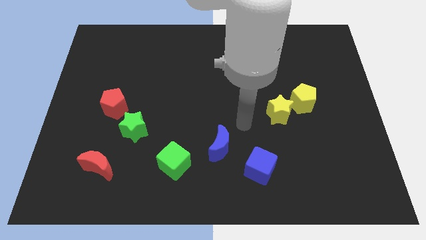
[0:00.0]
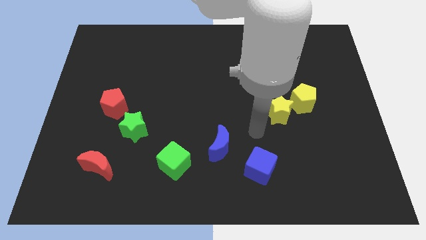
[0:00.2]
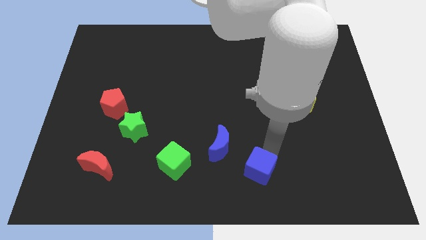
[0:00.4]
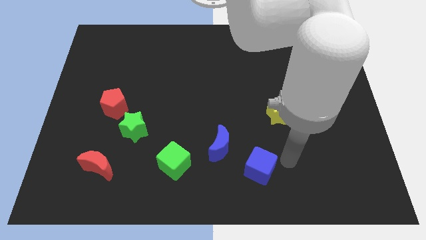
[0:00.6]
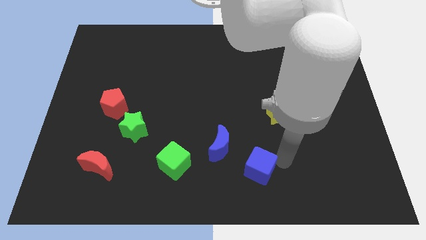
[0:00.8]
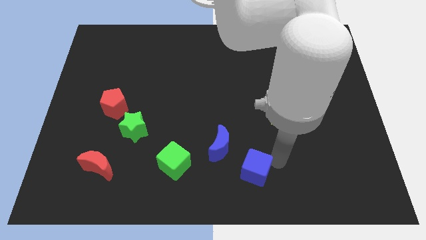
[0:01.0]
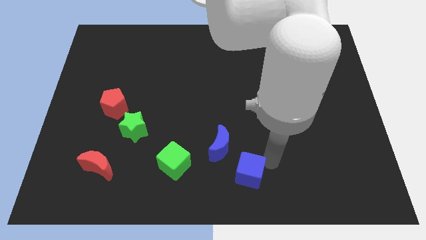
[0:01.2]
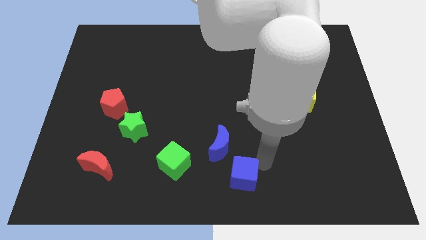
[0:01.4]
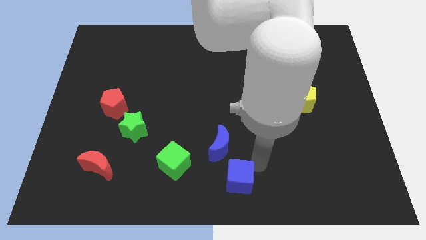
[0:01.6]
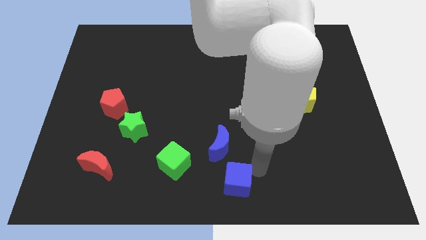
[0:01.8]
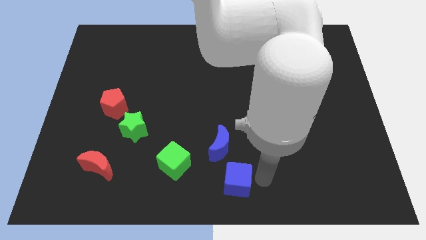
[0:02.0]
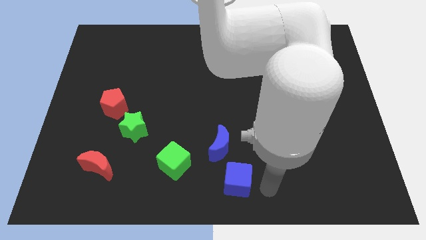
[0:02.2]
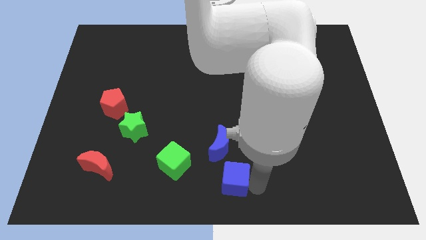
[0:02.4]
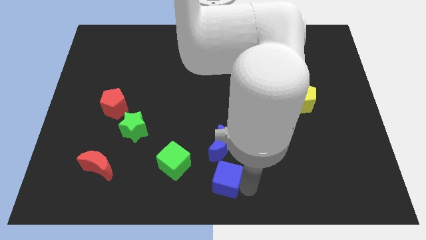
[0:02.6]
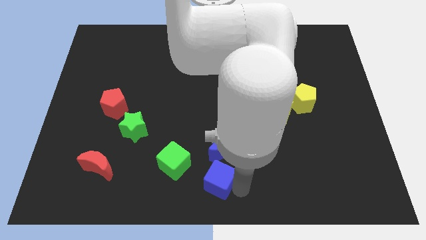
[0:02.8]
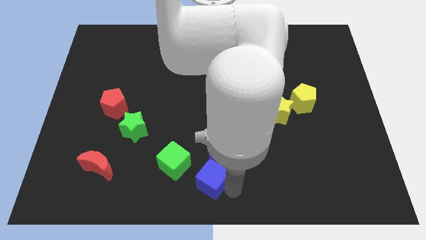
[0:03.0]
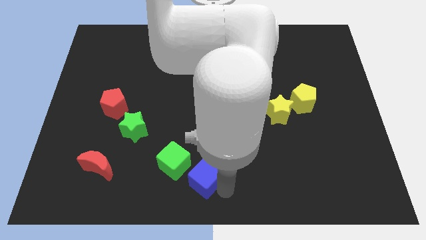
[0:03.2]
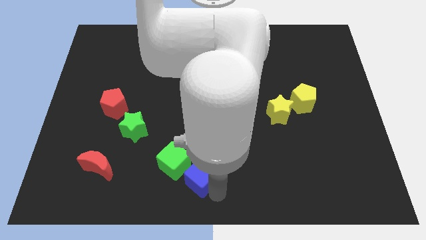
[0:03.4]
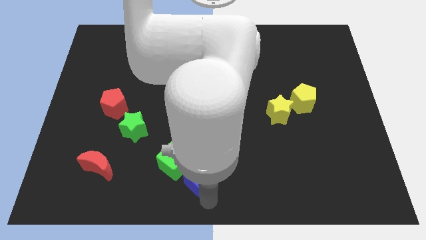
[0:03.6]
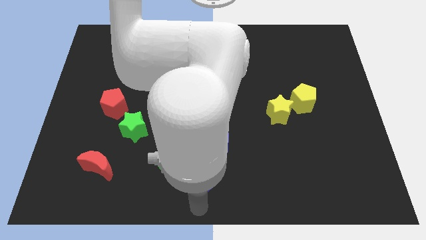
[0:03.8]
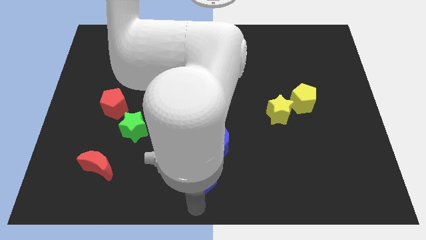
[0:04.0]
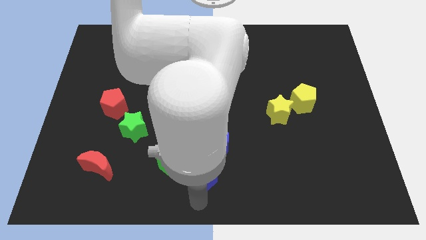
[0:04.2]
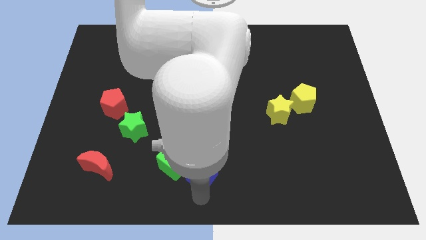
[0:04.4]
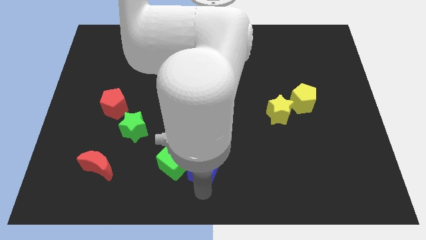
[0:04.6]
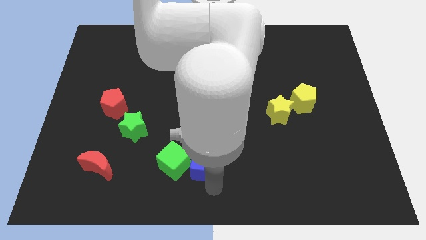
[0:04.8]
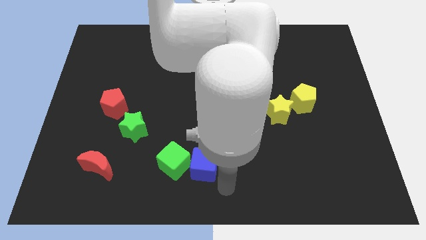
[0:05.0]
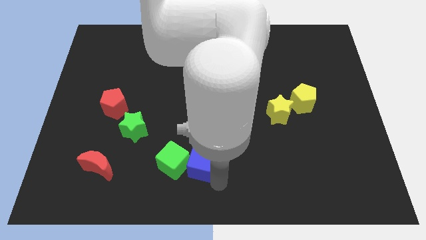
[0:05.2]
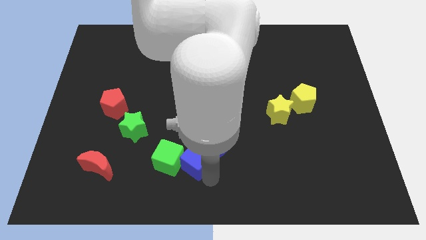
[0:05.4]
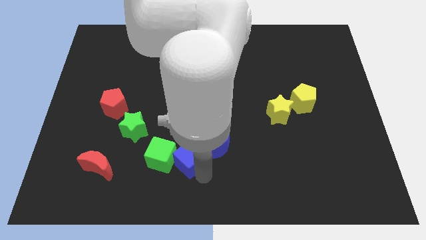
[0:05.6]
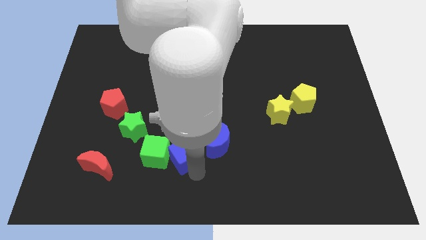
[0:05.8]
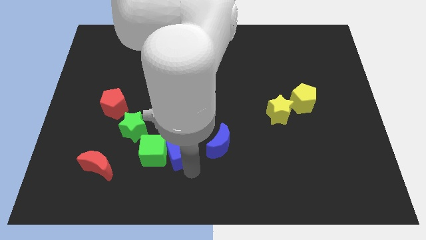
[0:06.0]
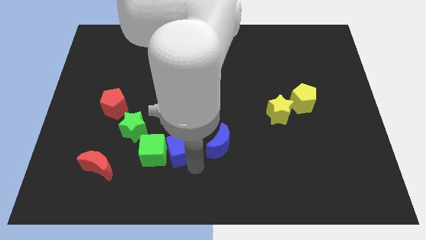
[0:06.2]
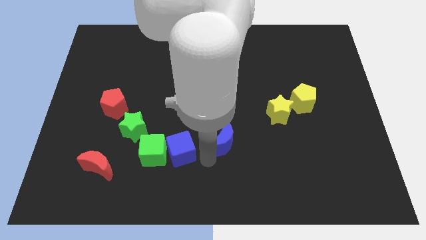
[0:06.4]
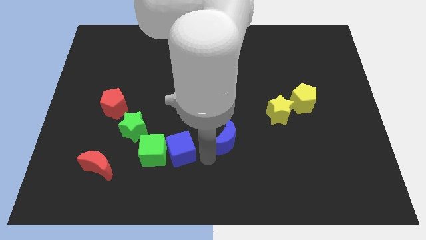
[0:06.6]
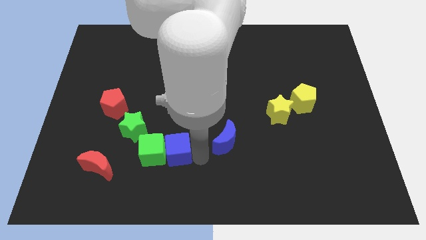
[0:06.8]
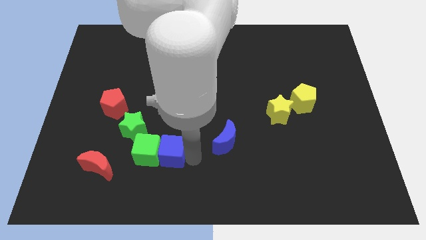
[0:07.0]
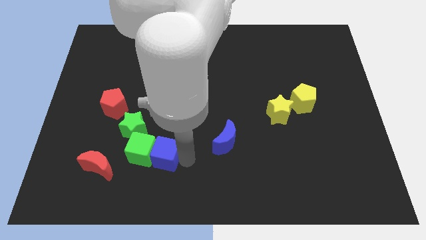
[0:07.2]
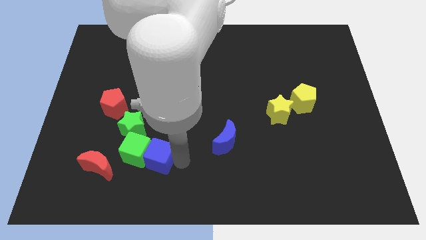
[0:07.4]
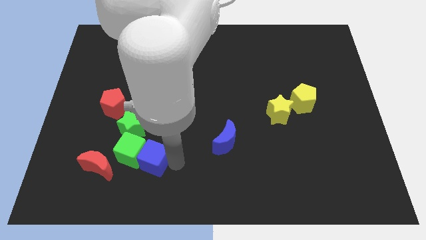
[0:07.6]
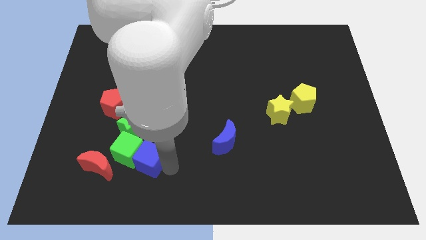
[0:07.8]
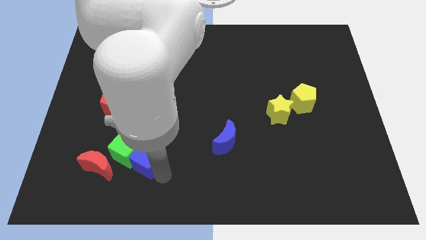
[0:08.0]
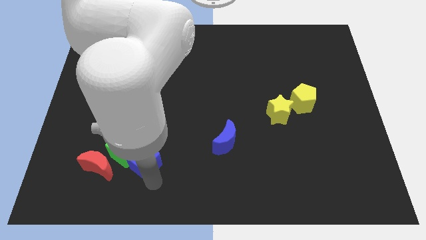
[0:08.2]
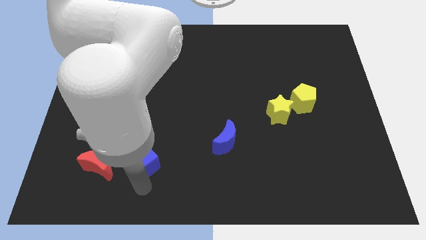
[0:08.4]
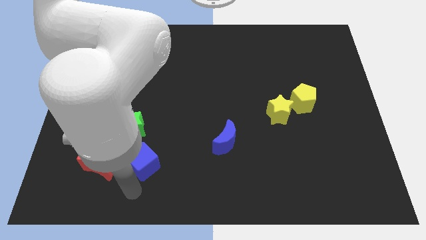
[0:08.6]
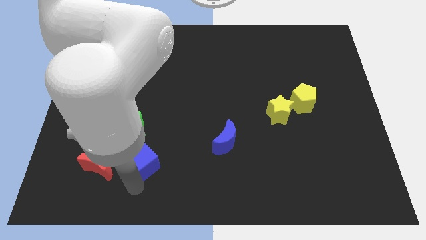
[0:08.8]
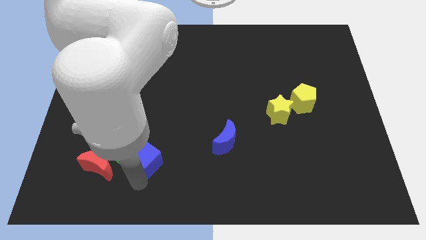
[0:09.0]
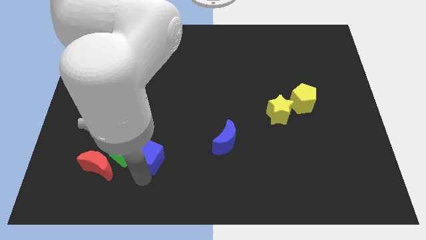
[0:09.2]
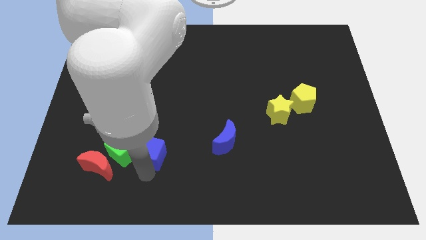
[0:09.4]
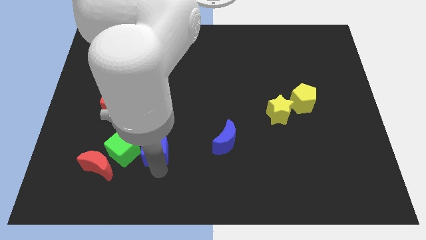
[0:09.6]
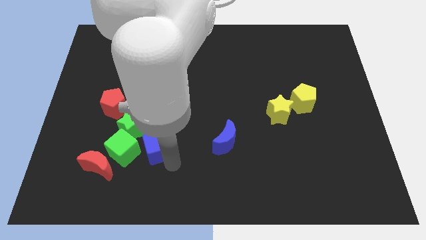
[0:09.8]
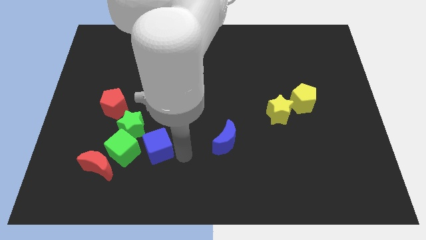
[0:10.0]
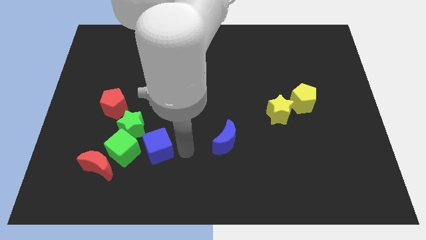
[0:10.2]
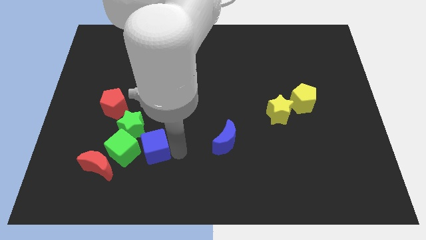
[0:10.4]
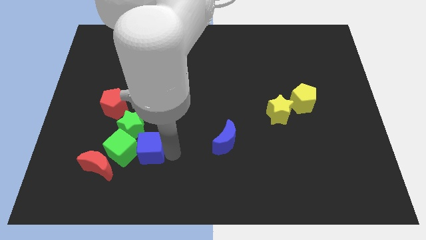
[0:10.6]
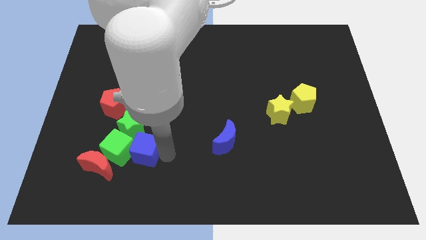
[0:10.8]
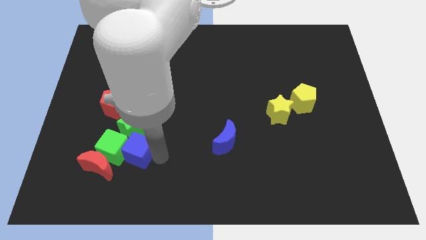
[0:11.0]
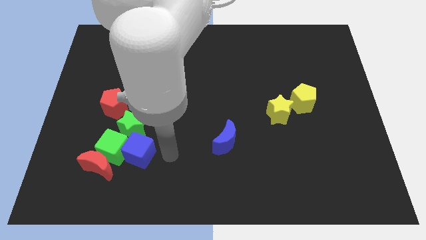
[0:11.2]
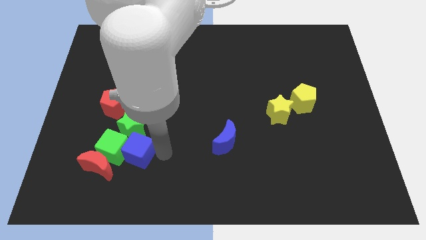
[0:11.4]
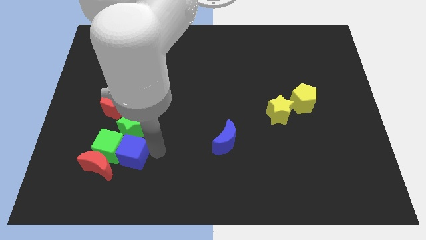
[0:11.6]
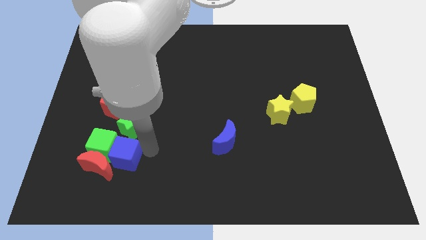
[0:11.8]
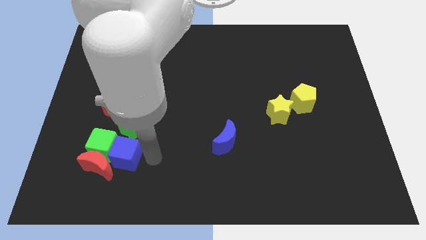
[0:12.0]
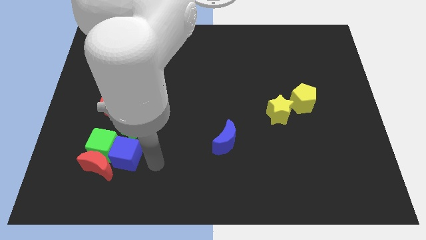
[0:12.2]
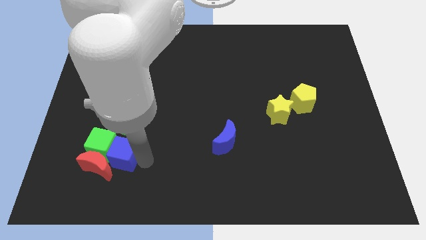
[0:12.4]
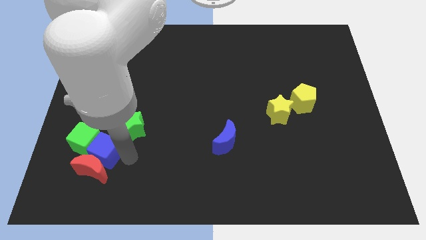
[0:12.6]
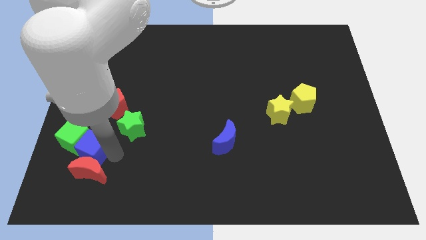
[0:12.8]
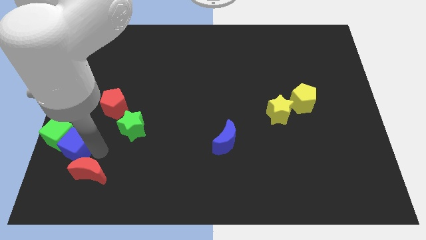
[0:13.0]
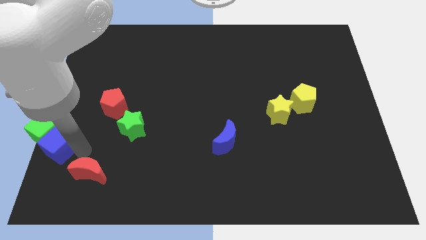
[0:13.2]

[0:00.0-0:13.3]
slide the blue cube to the left side of the board
